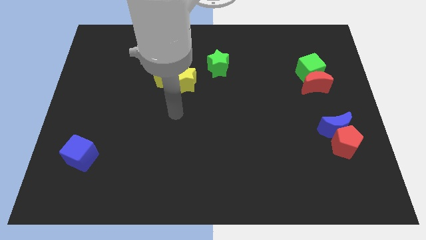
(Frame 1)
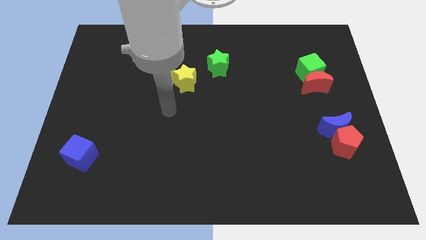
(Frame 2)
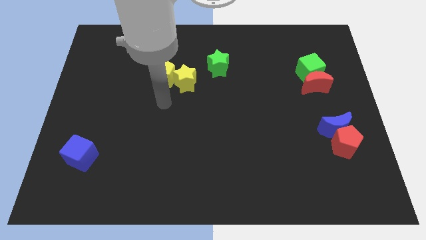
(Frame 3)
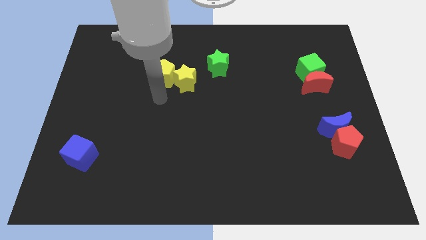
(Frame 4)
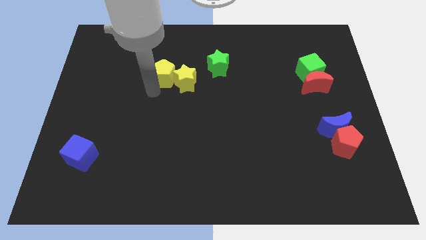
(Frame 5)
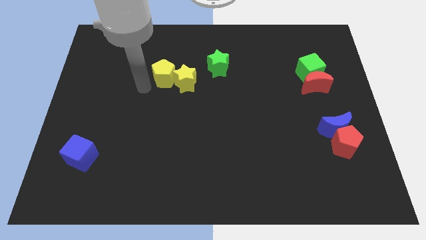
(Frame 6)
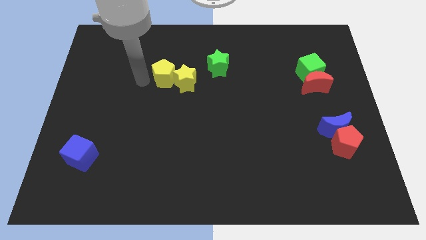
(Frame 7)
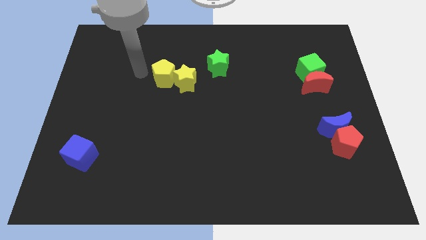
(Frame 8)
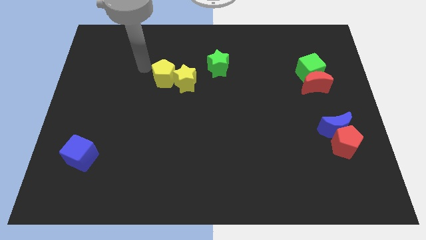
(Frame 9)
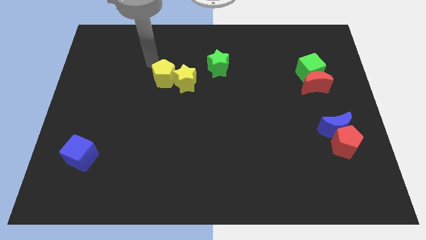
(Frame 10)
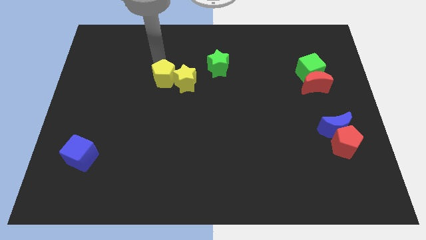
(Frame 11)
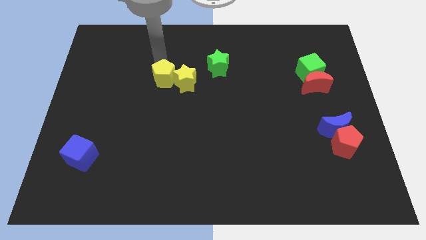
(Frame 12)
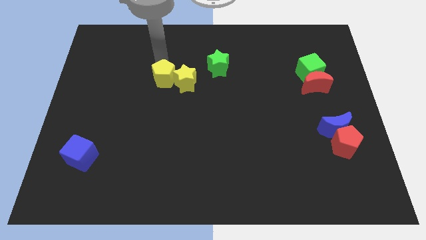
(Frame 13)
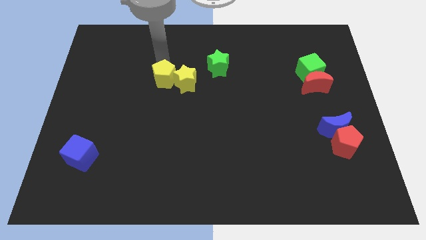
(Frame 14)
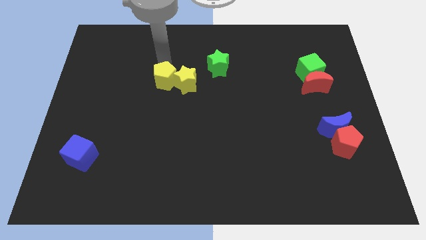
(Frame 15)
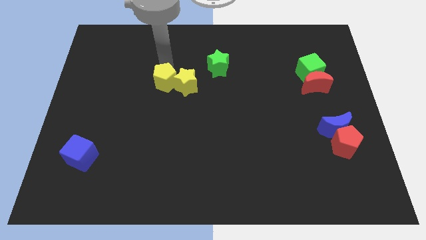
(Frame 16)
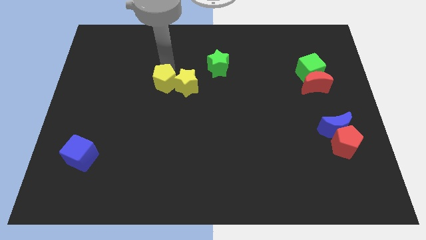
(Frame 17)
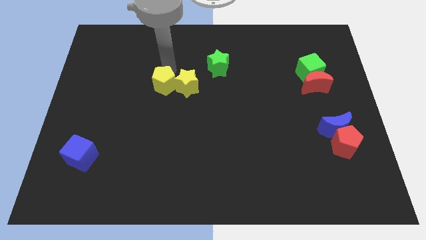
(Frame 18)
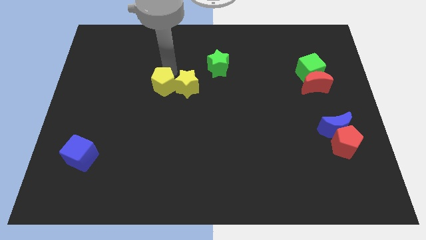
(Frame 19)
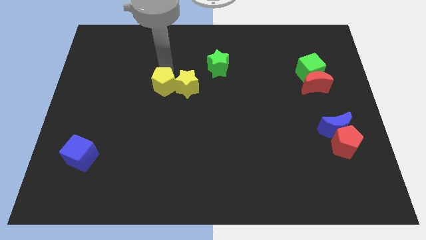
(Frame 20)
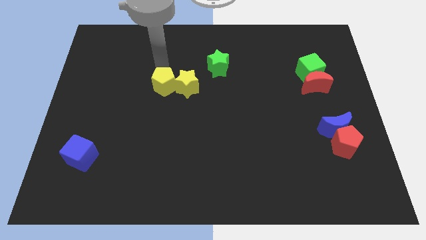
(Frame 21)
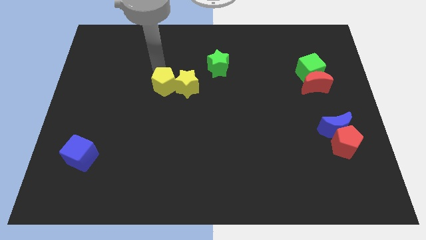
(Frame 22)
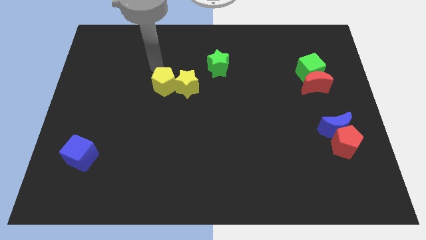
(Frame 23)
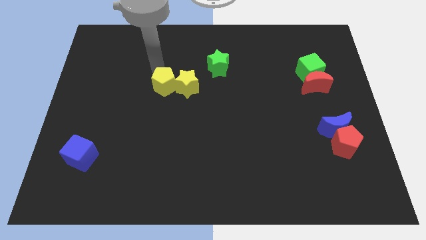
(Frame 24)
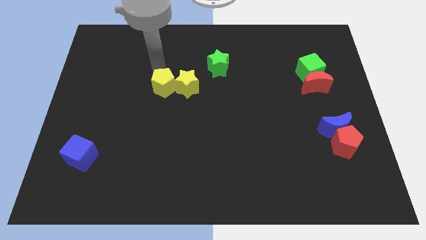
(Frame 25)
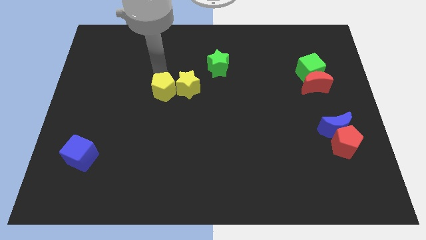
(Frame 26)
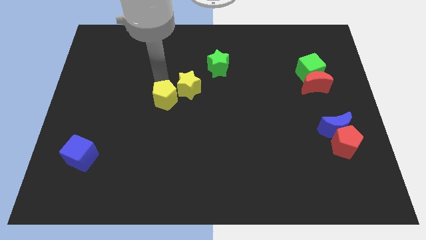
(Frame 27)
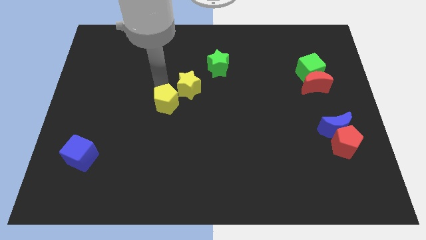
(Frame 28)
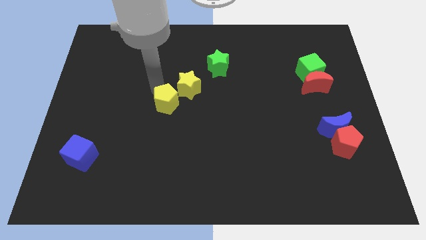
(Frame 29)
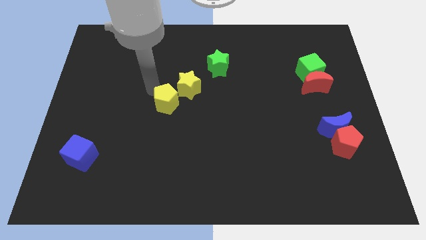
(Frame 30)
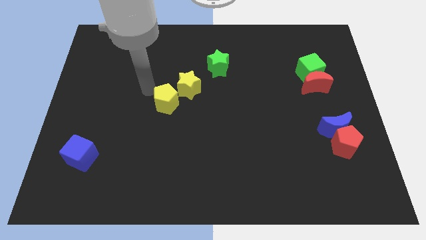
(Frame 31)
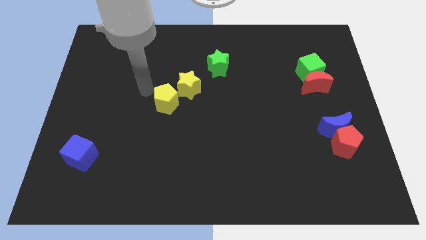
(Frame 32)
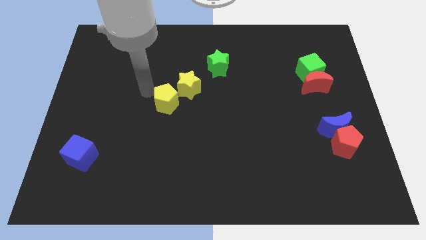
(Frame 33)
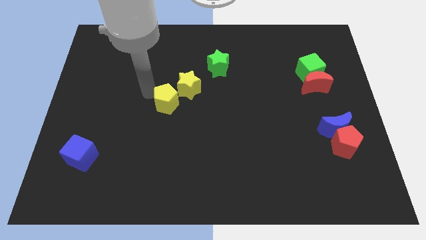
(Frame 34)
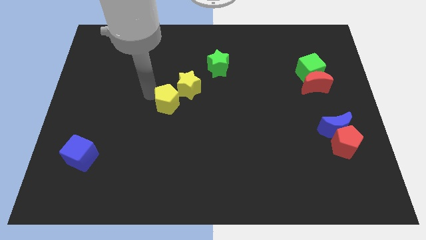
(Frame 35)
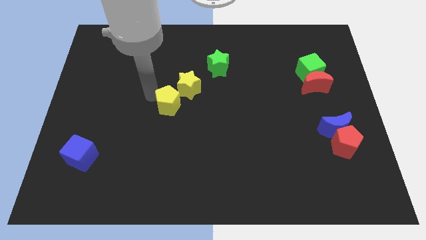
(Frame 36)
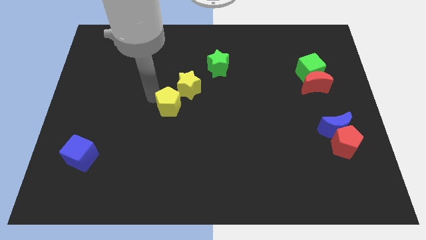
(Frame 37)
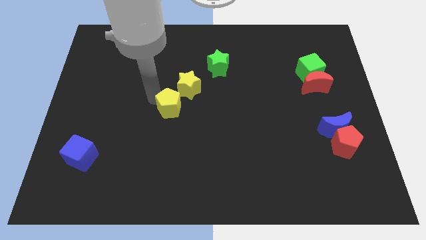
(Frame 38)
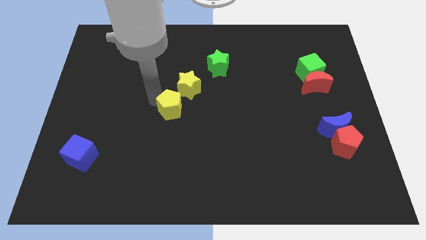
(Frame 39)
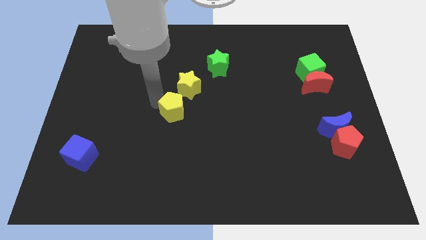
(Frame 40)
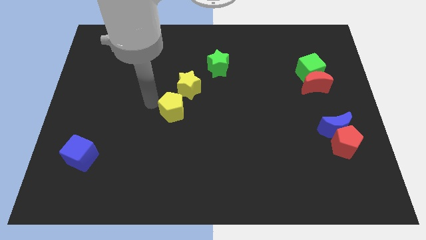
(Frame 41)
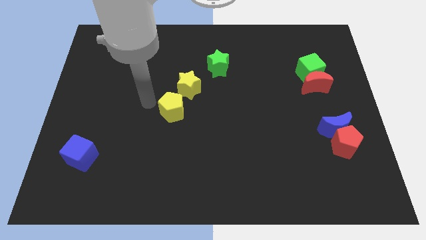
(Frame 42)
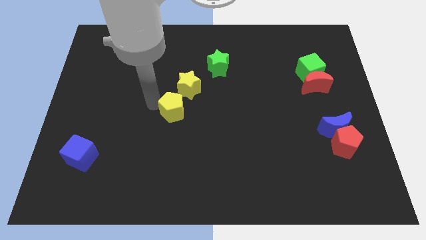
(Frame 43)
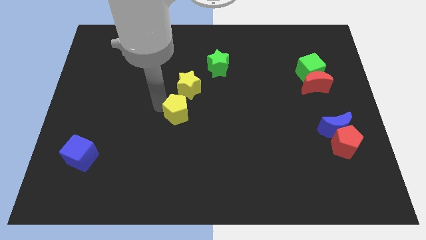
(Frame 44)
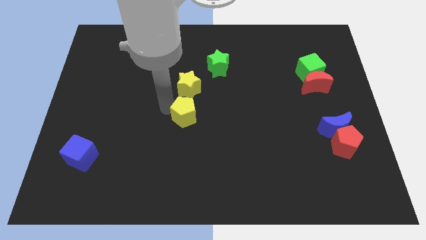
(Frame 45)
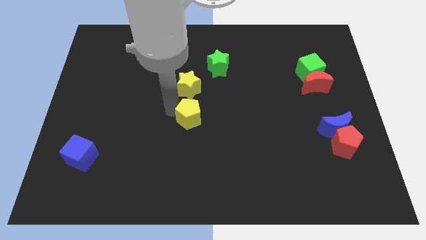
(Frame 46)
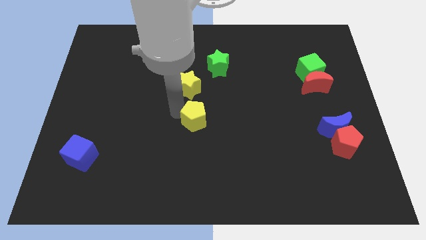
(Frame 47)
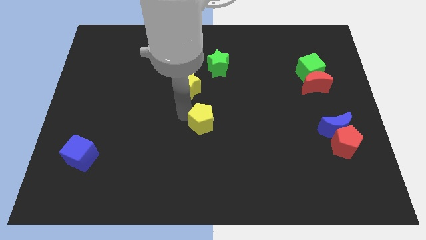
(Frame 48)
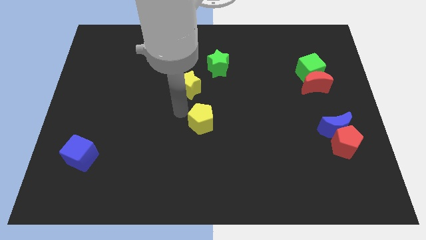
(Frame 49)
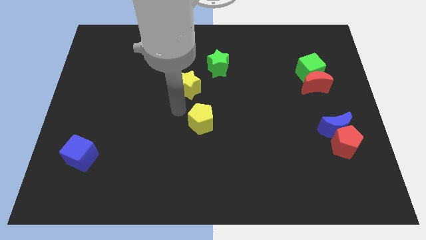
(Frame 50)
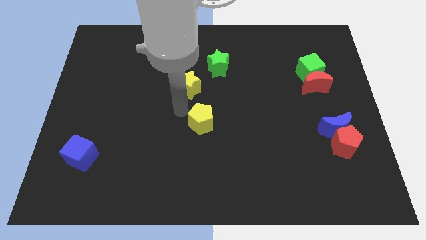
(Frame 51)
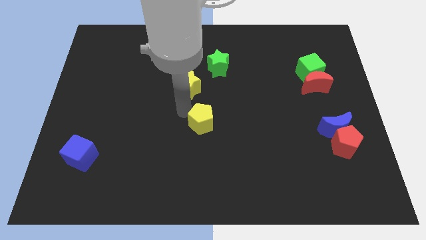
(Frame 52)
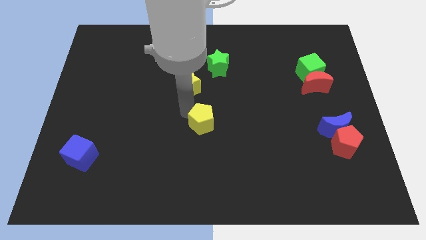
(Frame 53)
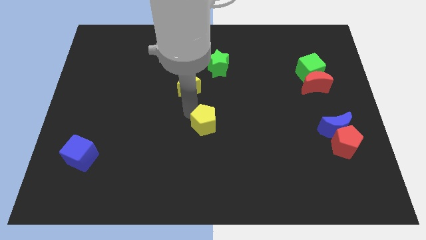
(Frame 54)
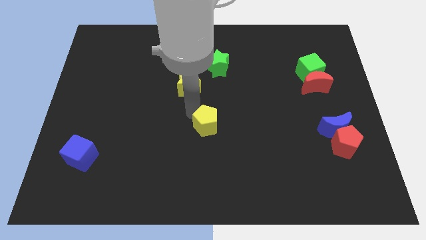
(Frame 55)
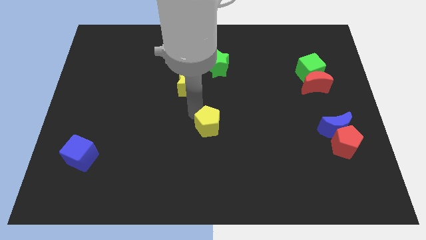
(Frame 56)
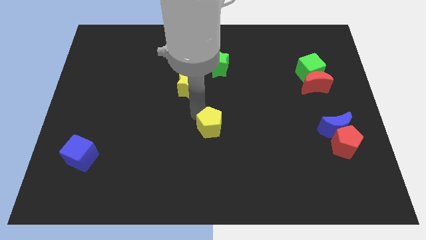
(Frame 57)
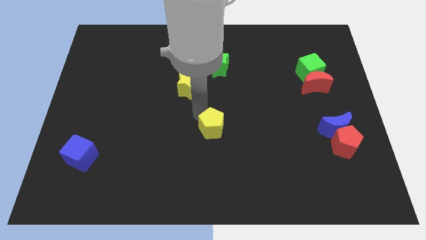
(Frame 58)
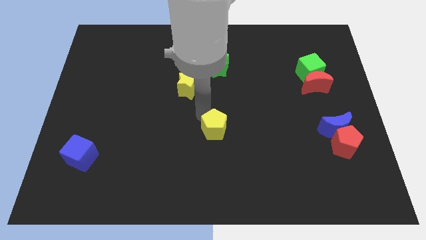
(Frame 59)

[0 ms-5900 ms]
move the yellow pentagon diagonally down and to the right

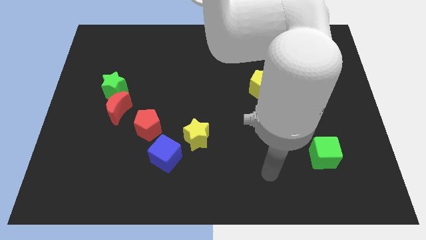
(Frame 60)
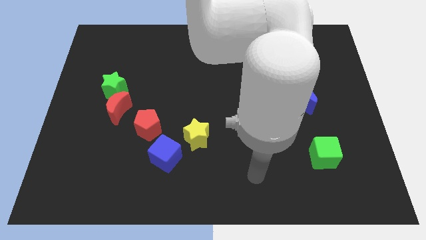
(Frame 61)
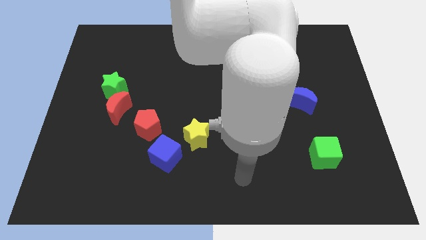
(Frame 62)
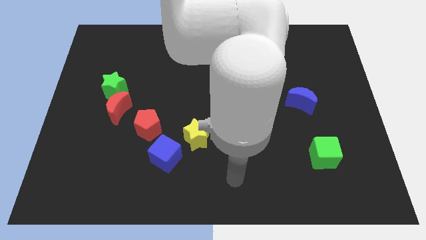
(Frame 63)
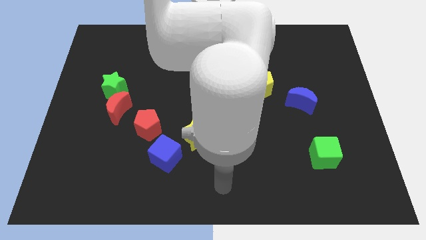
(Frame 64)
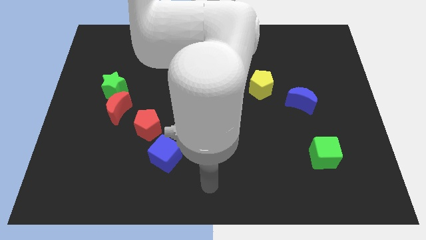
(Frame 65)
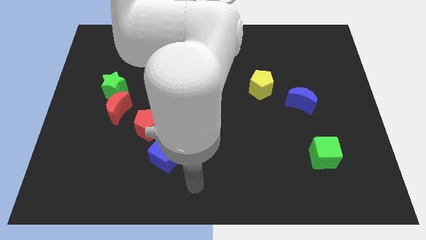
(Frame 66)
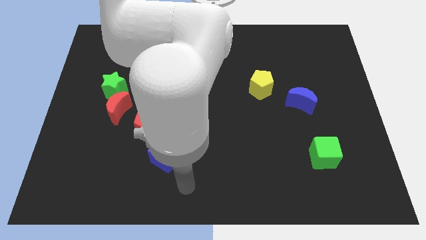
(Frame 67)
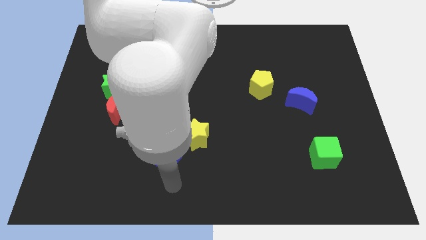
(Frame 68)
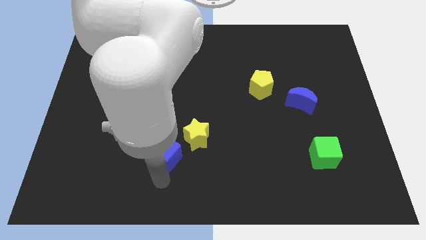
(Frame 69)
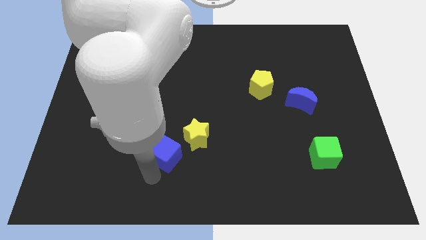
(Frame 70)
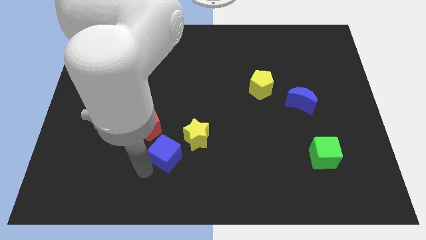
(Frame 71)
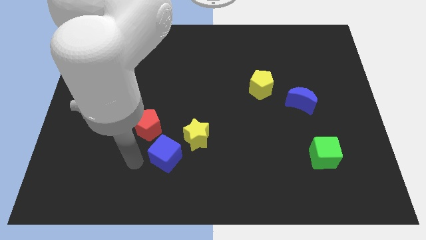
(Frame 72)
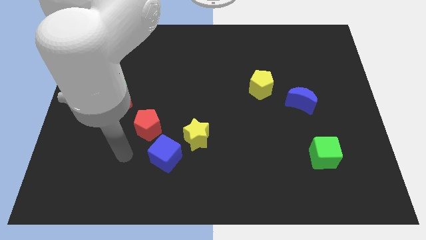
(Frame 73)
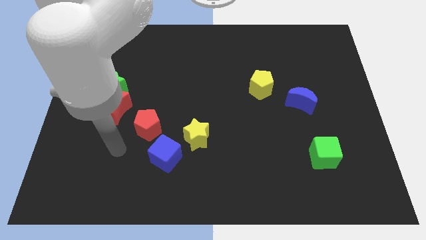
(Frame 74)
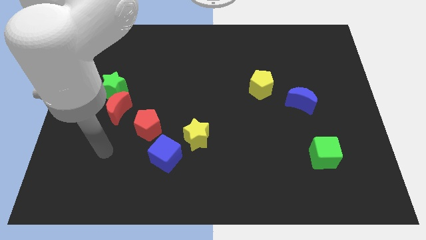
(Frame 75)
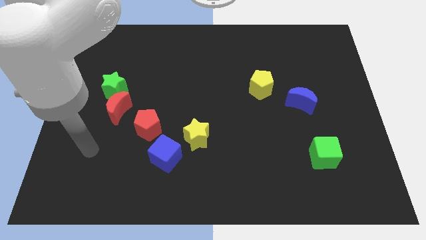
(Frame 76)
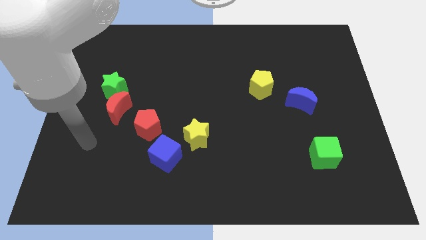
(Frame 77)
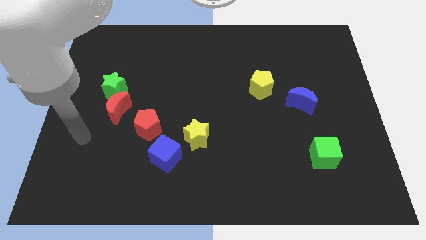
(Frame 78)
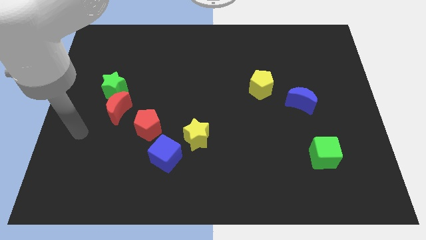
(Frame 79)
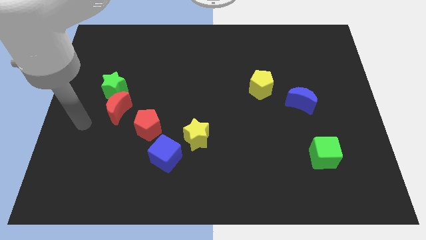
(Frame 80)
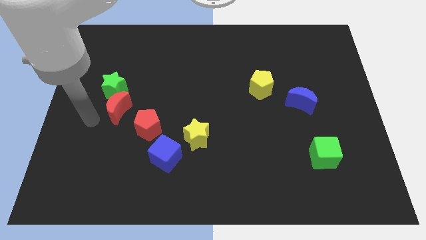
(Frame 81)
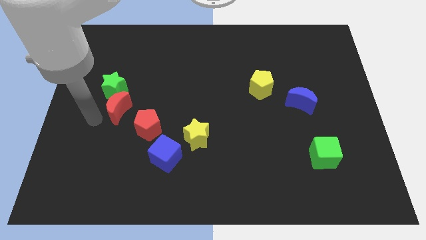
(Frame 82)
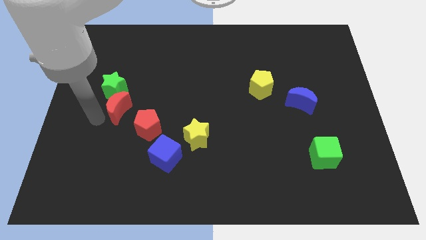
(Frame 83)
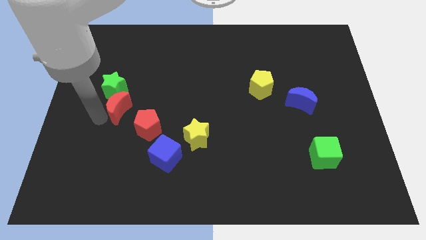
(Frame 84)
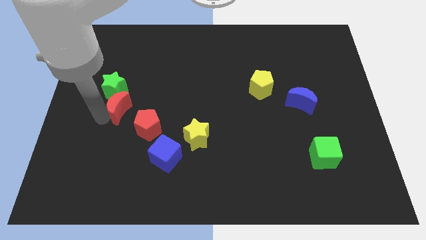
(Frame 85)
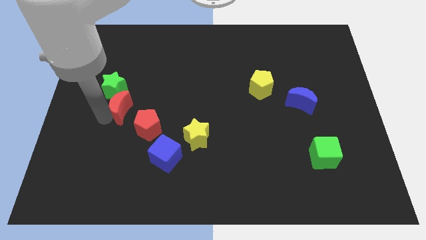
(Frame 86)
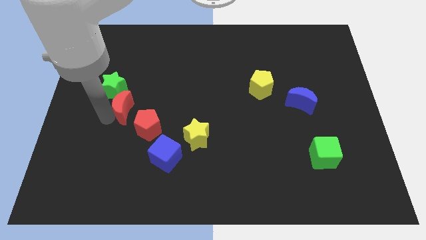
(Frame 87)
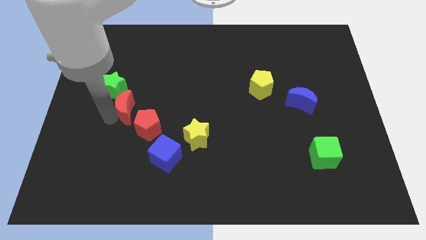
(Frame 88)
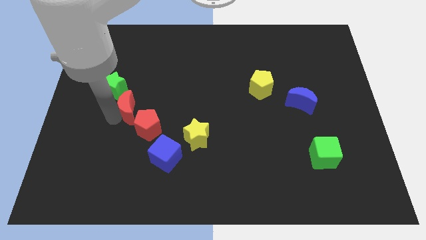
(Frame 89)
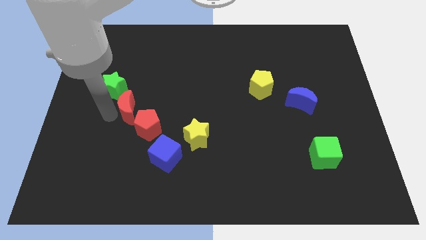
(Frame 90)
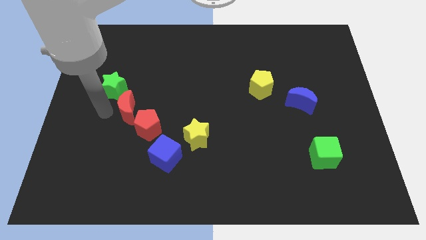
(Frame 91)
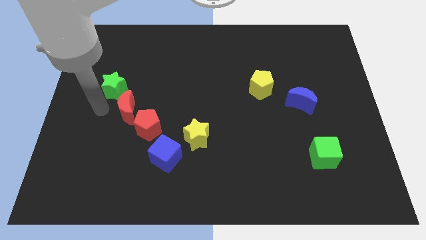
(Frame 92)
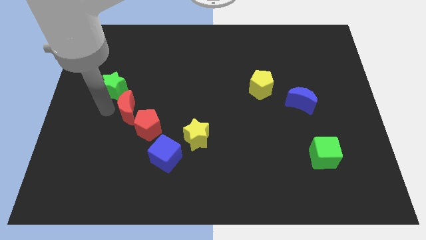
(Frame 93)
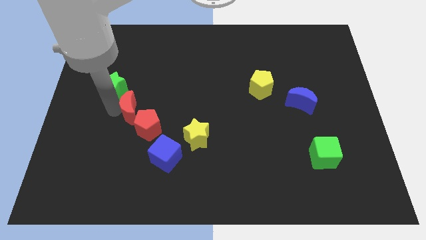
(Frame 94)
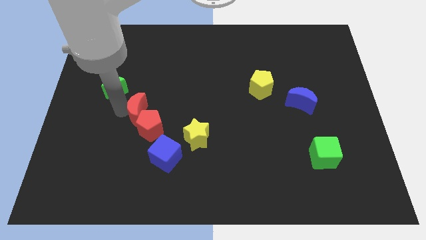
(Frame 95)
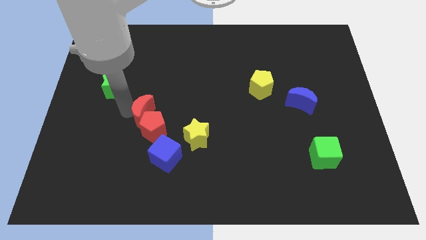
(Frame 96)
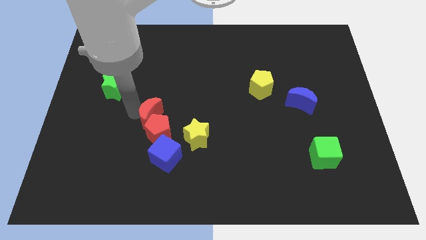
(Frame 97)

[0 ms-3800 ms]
move the red moon right slightly
